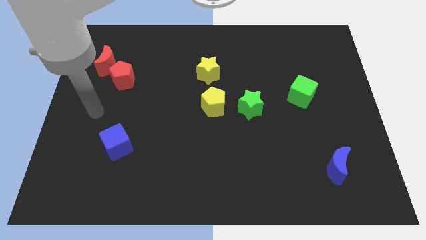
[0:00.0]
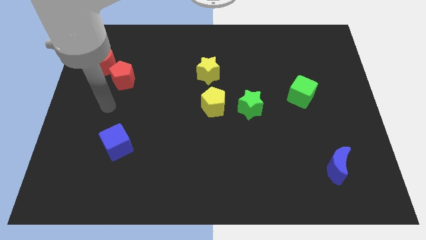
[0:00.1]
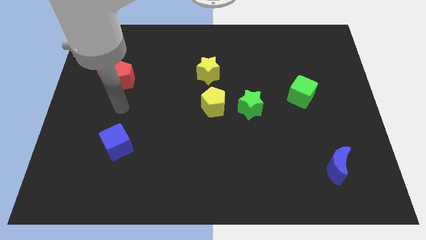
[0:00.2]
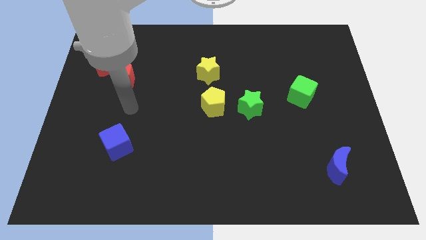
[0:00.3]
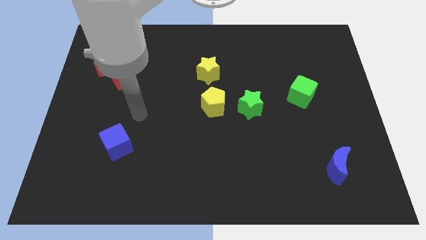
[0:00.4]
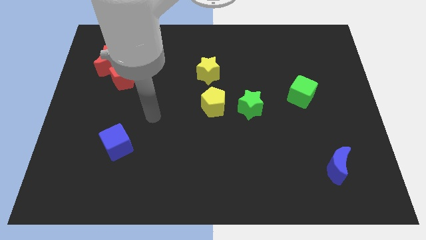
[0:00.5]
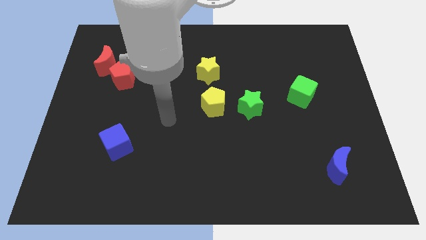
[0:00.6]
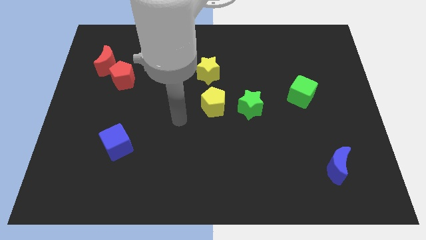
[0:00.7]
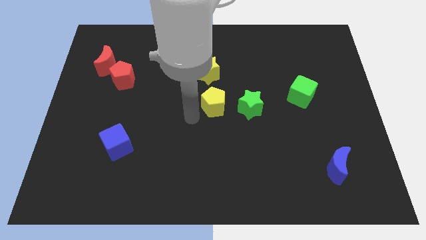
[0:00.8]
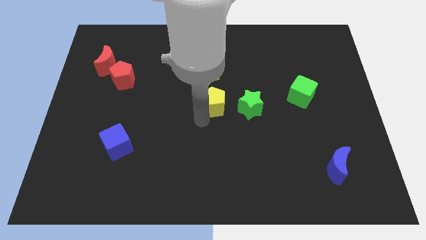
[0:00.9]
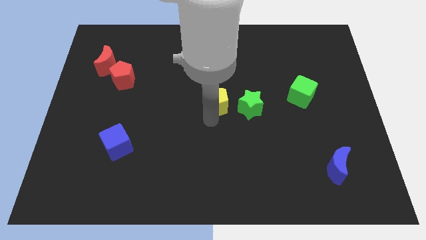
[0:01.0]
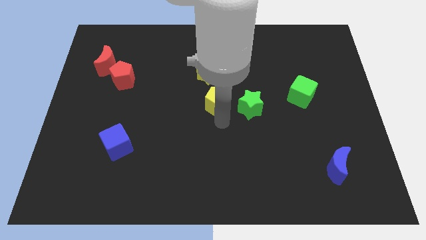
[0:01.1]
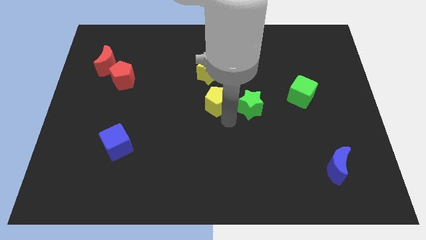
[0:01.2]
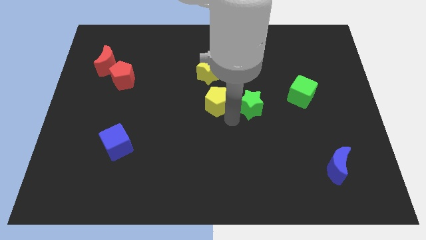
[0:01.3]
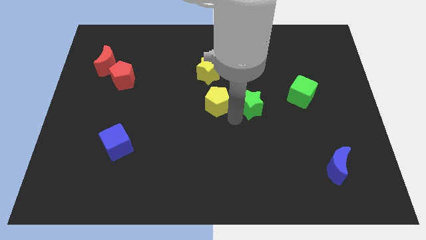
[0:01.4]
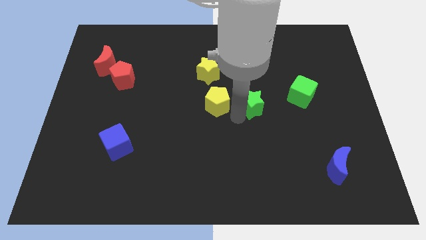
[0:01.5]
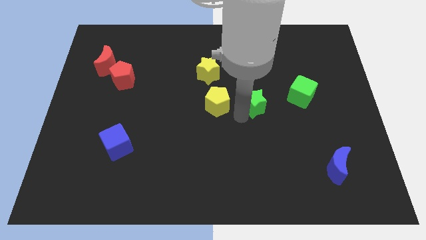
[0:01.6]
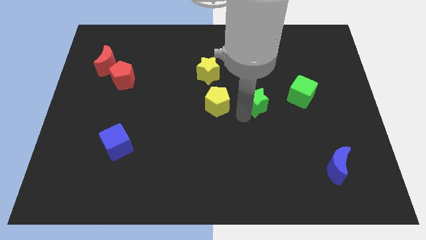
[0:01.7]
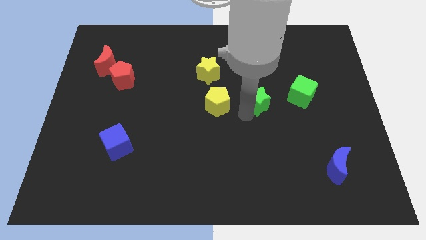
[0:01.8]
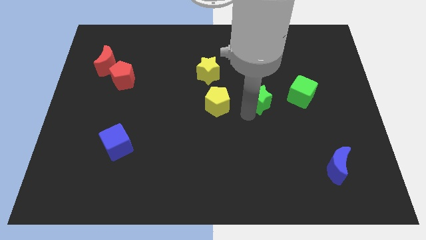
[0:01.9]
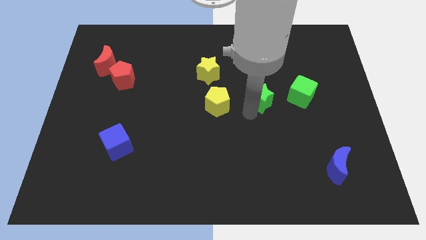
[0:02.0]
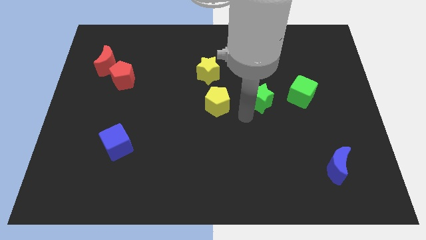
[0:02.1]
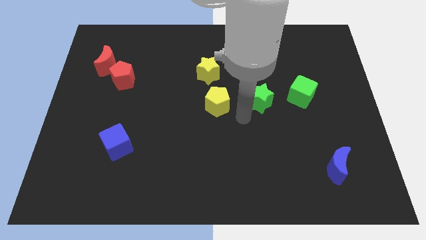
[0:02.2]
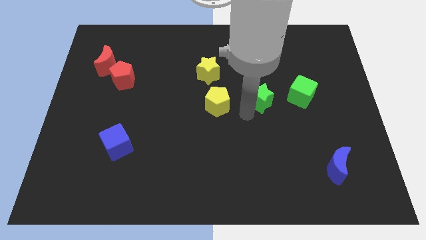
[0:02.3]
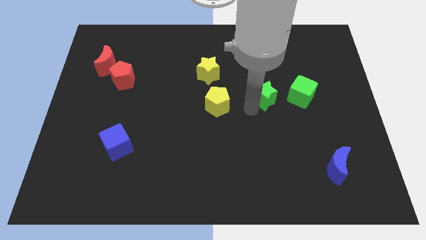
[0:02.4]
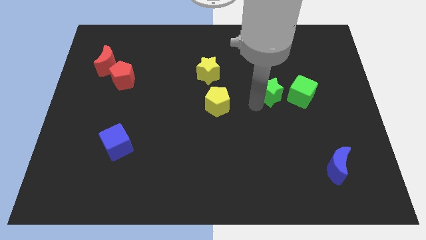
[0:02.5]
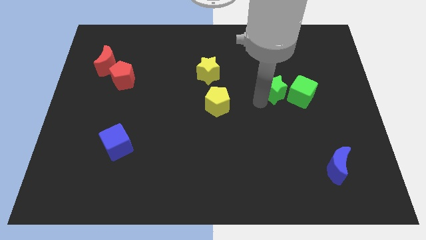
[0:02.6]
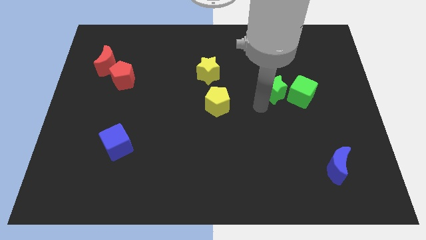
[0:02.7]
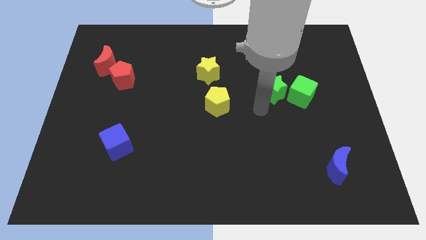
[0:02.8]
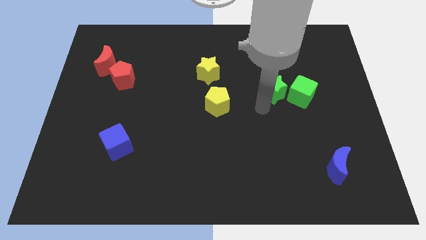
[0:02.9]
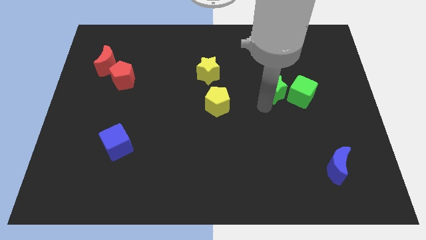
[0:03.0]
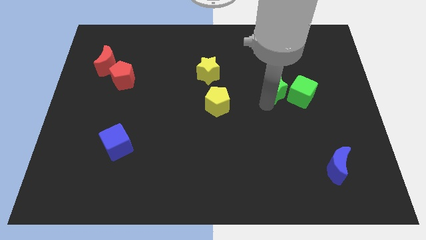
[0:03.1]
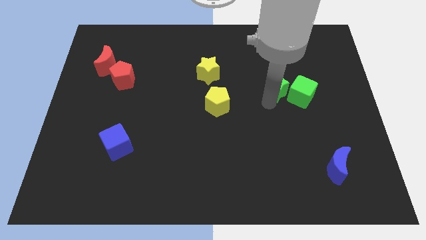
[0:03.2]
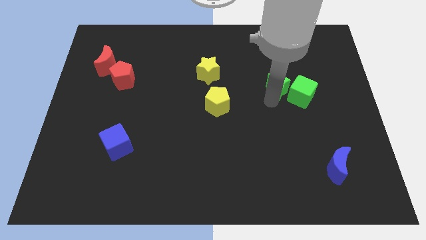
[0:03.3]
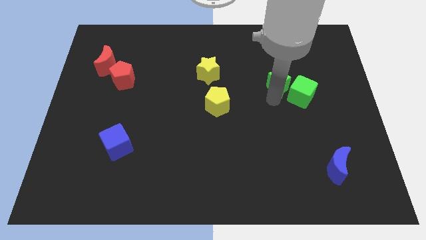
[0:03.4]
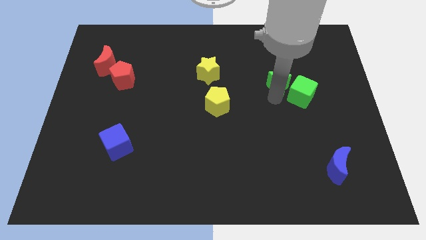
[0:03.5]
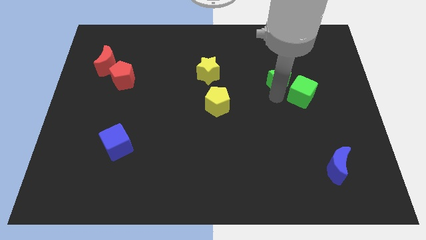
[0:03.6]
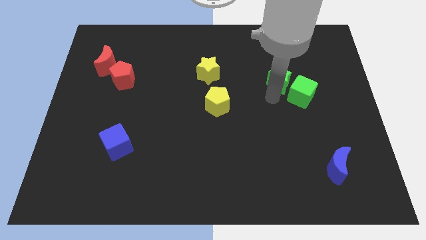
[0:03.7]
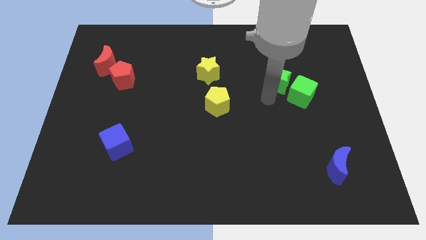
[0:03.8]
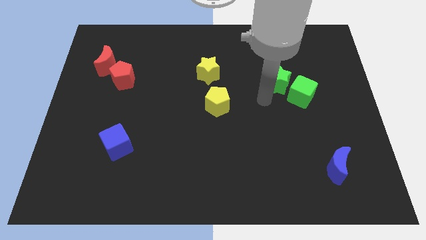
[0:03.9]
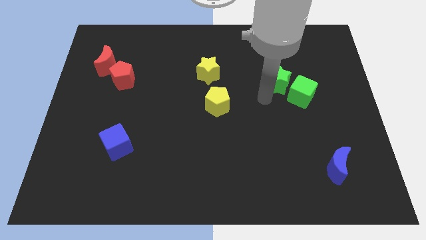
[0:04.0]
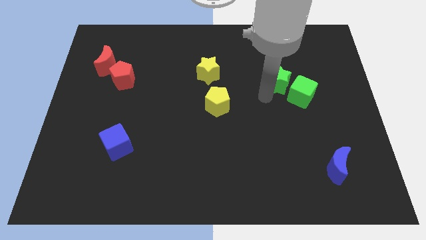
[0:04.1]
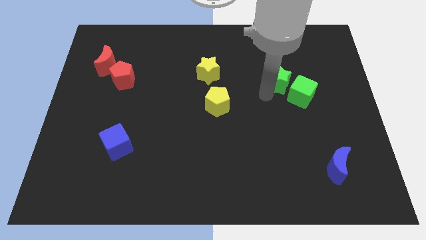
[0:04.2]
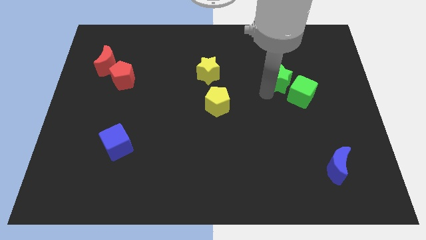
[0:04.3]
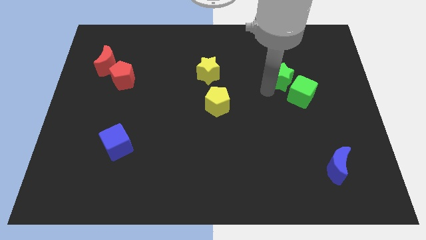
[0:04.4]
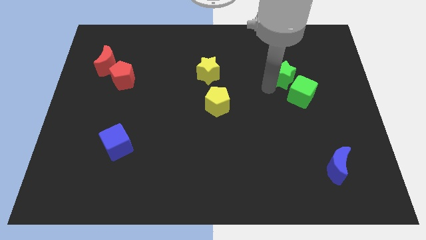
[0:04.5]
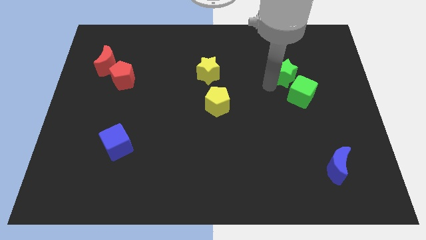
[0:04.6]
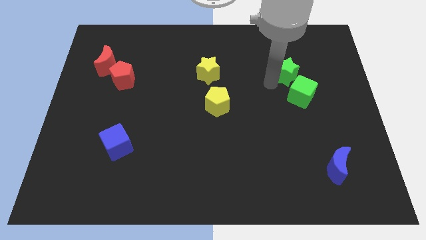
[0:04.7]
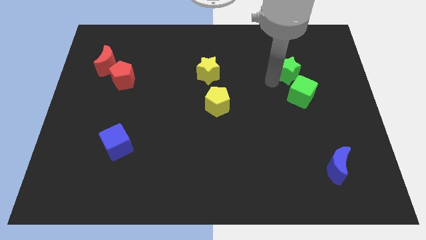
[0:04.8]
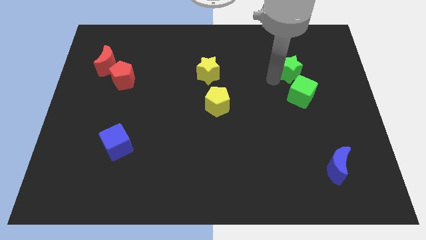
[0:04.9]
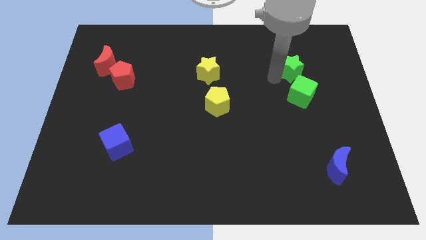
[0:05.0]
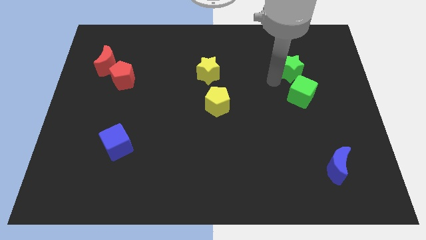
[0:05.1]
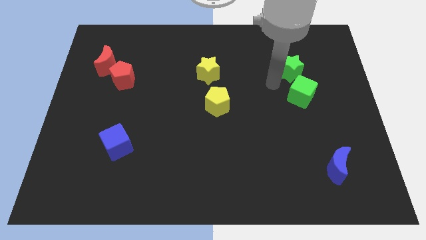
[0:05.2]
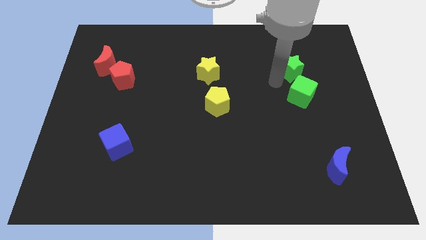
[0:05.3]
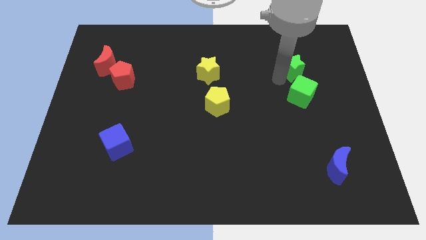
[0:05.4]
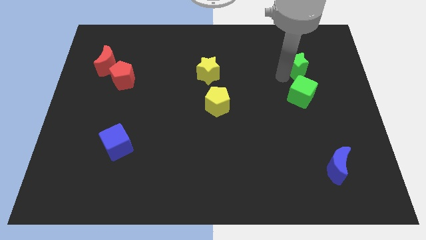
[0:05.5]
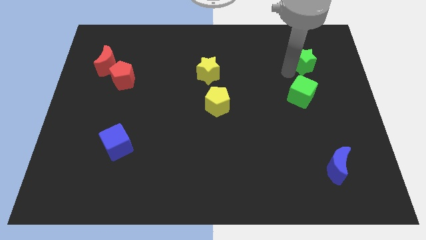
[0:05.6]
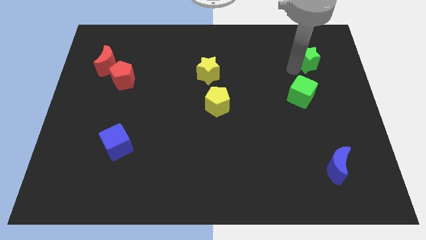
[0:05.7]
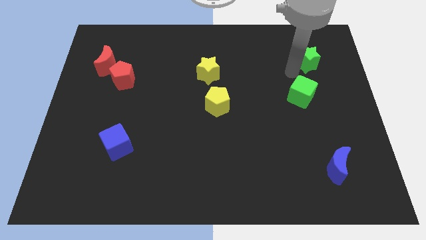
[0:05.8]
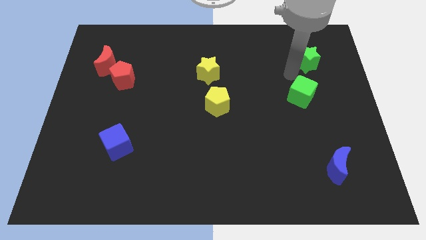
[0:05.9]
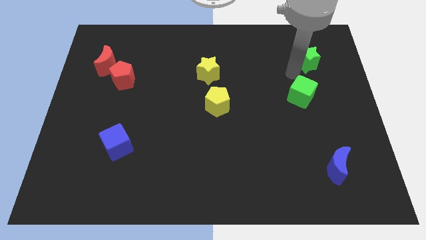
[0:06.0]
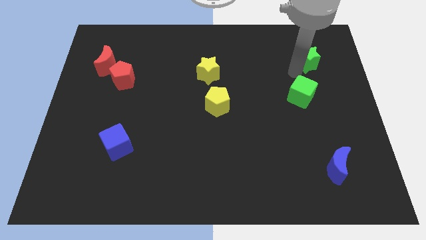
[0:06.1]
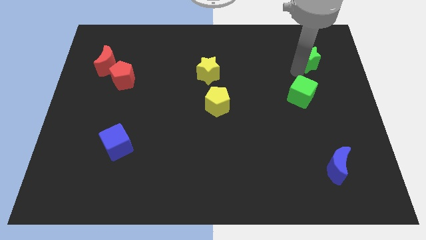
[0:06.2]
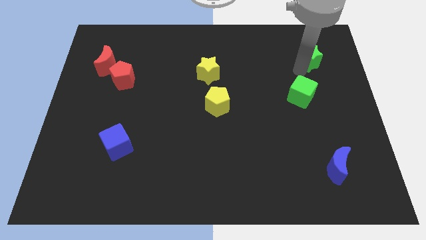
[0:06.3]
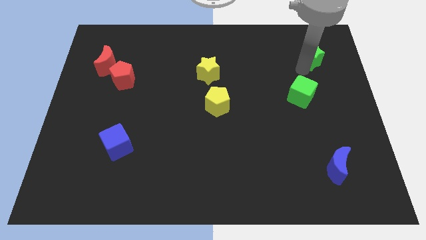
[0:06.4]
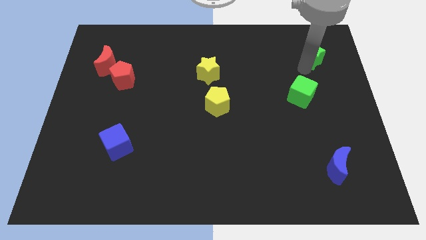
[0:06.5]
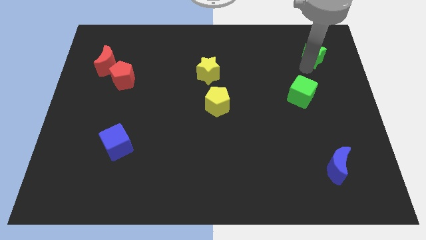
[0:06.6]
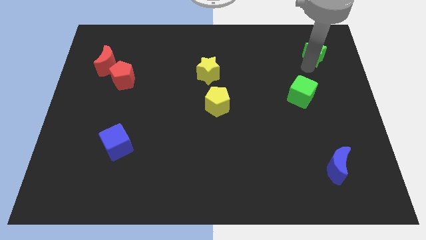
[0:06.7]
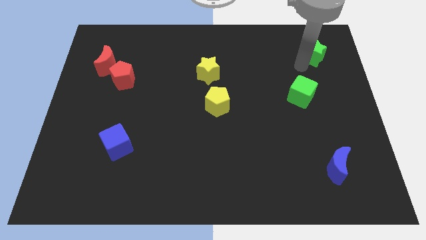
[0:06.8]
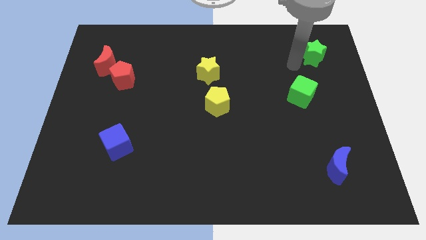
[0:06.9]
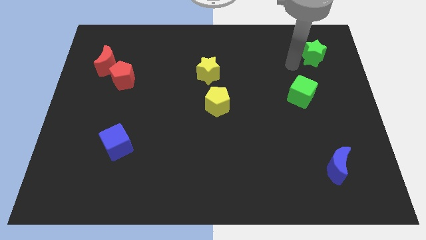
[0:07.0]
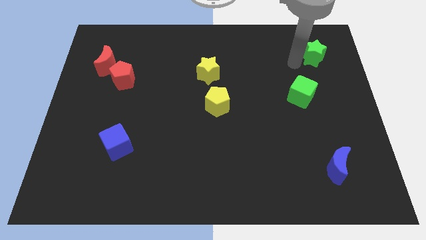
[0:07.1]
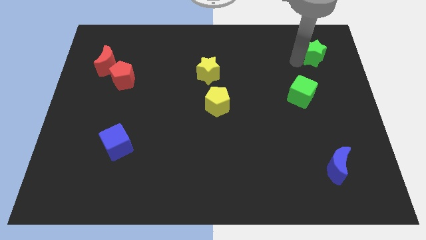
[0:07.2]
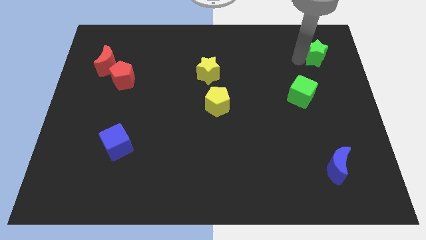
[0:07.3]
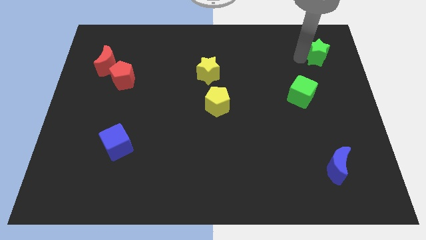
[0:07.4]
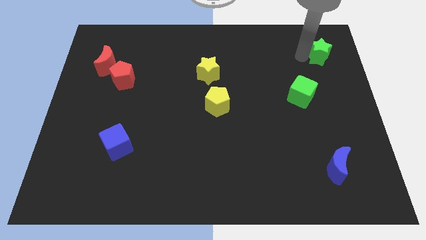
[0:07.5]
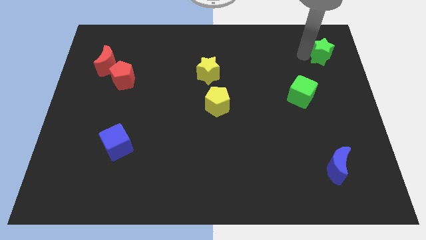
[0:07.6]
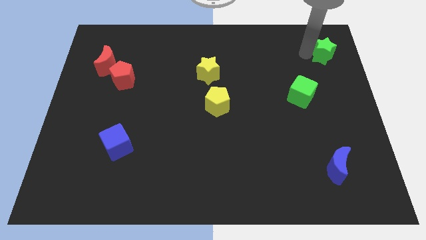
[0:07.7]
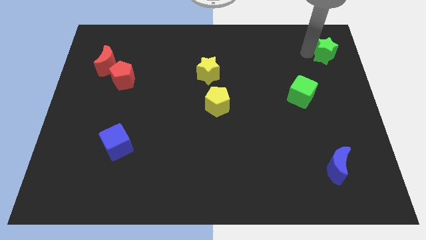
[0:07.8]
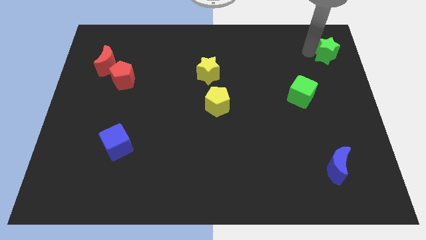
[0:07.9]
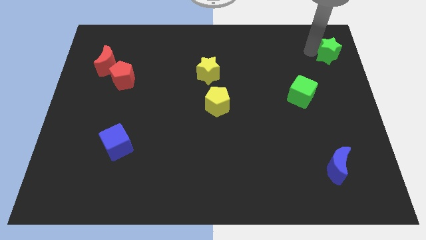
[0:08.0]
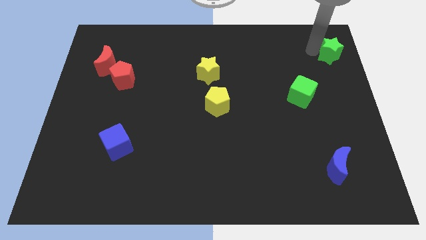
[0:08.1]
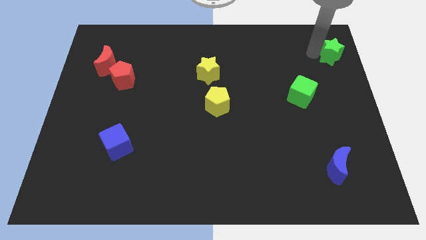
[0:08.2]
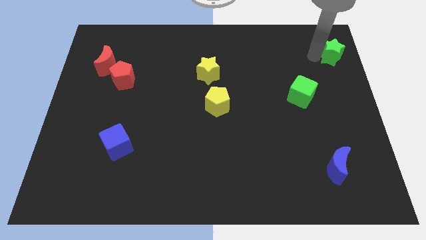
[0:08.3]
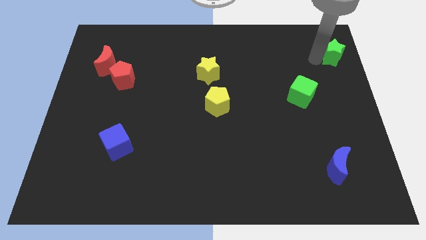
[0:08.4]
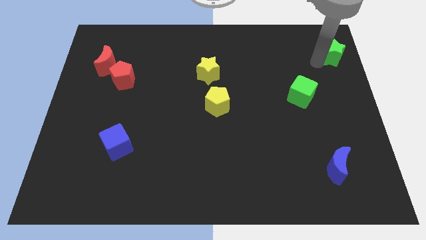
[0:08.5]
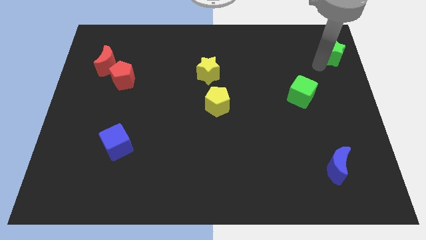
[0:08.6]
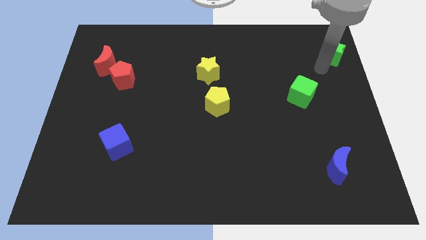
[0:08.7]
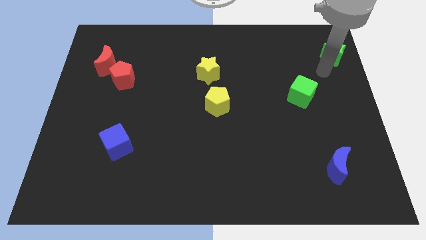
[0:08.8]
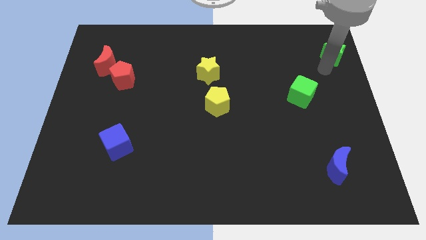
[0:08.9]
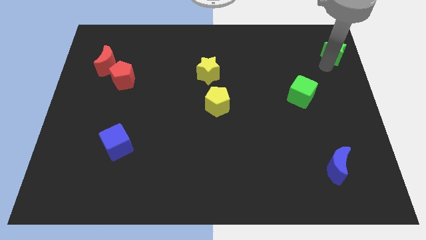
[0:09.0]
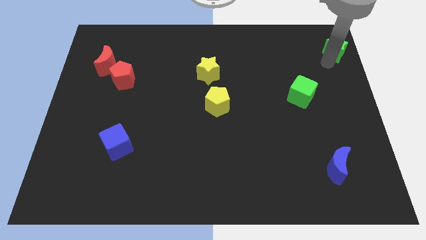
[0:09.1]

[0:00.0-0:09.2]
put the green star to the top right corner
